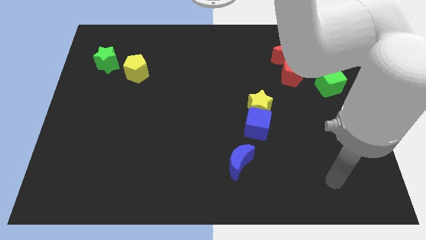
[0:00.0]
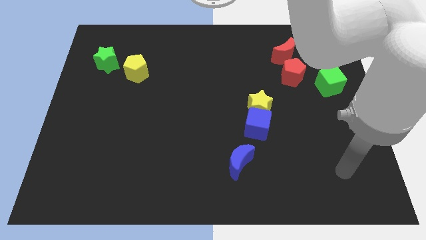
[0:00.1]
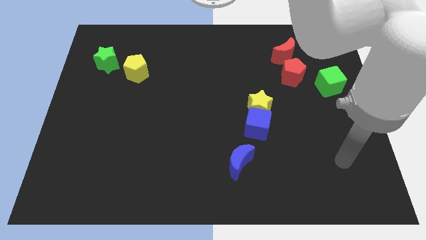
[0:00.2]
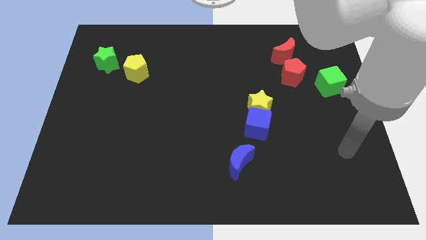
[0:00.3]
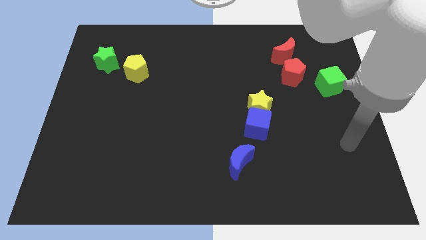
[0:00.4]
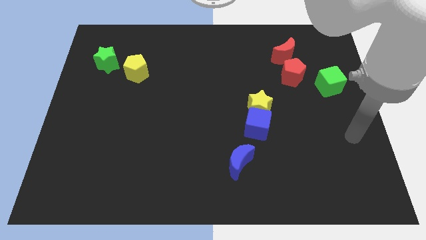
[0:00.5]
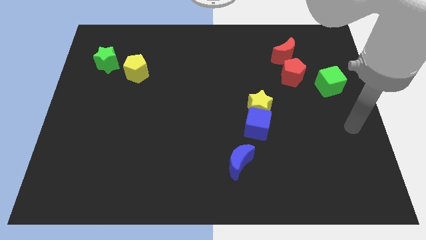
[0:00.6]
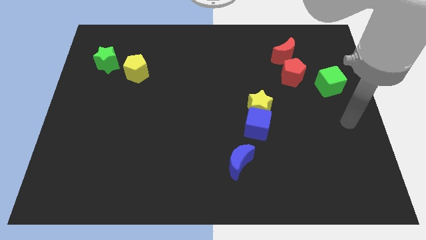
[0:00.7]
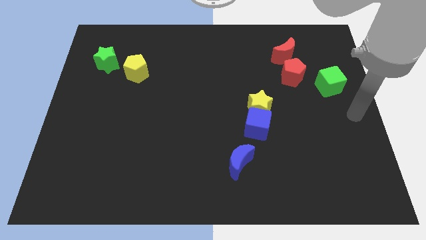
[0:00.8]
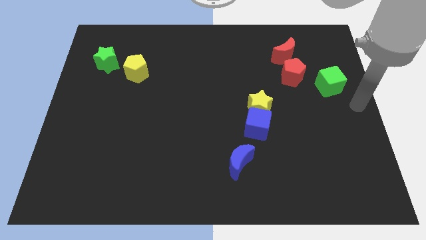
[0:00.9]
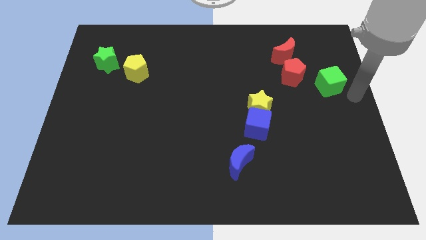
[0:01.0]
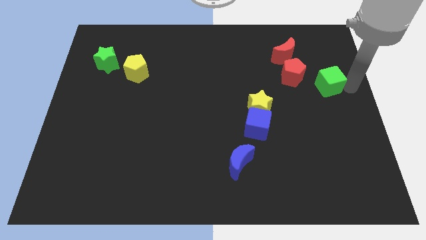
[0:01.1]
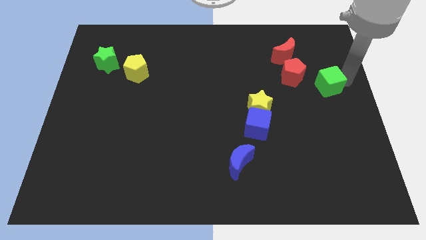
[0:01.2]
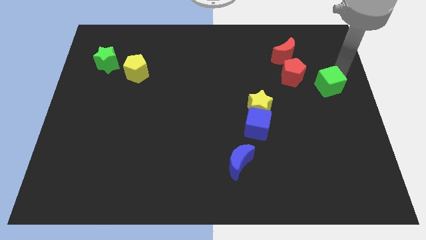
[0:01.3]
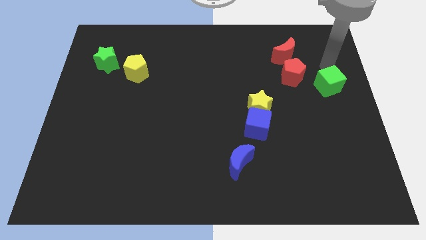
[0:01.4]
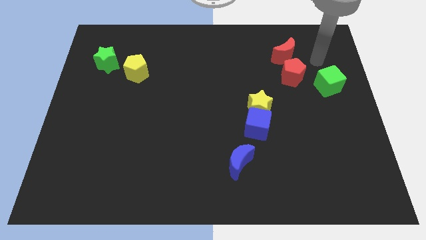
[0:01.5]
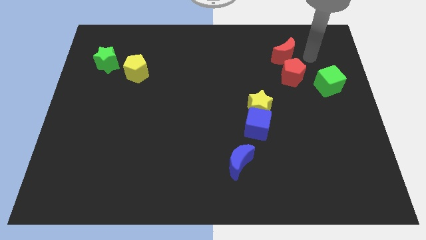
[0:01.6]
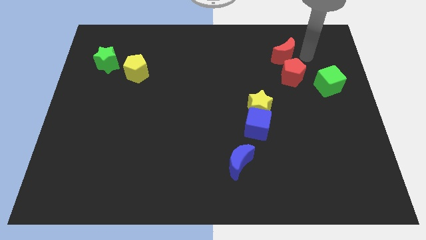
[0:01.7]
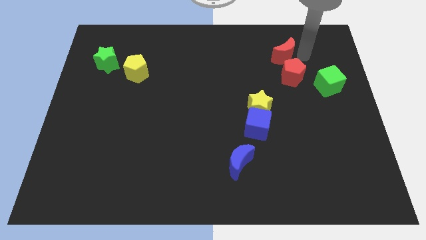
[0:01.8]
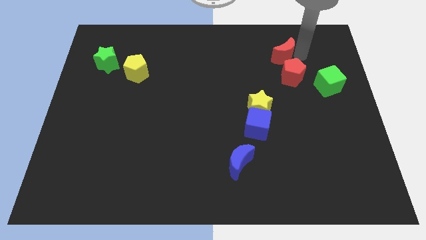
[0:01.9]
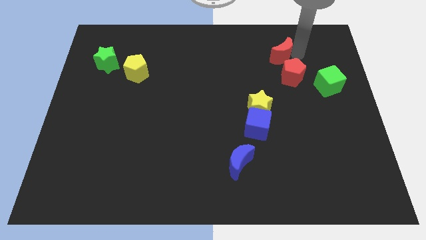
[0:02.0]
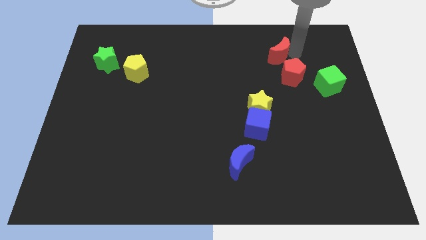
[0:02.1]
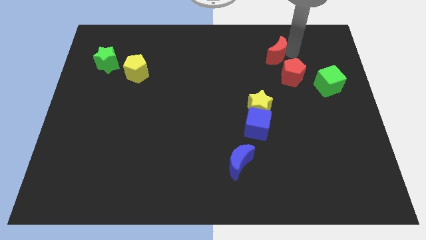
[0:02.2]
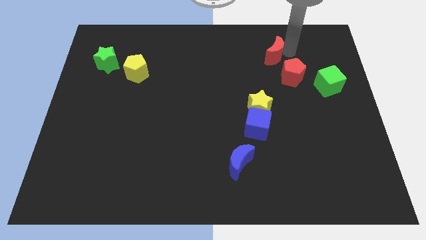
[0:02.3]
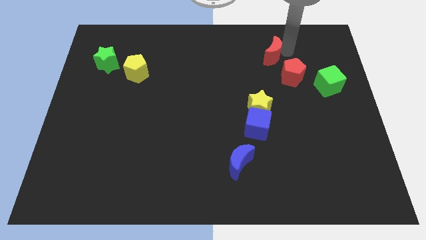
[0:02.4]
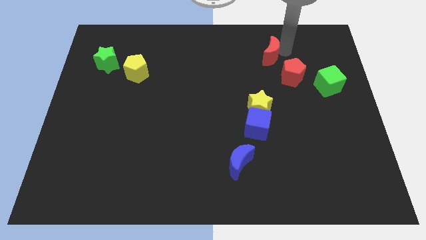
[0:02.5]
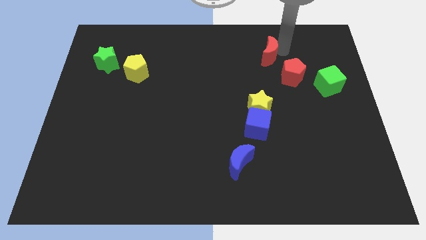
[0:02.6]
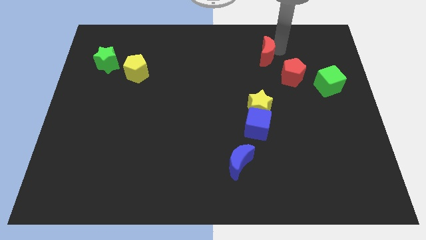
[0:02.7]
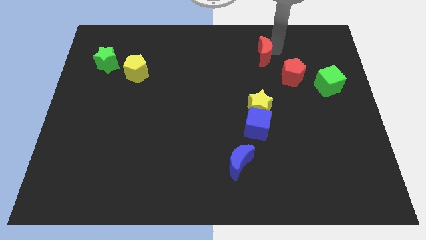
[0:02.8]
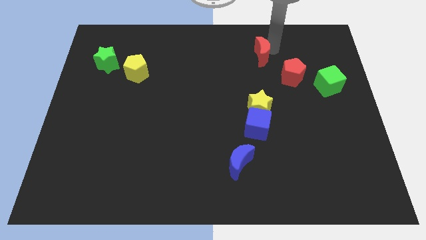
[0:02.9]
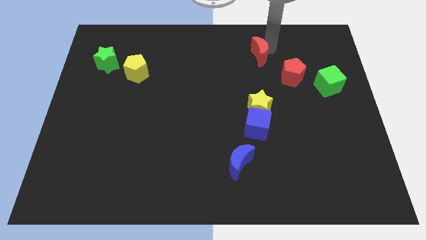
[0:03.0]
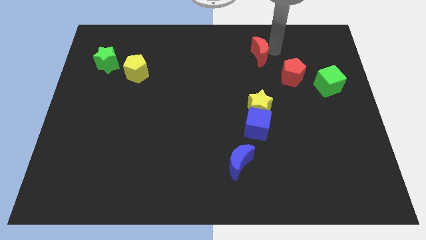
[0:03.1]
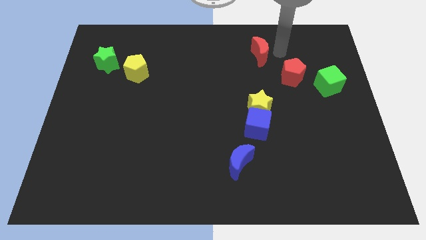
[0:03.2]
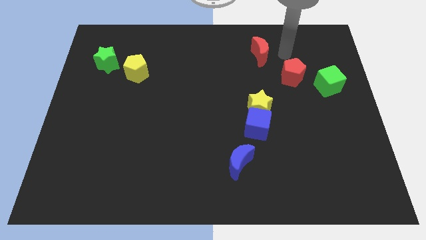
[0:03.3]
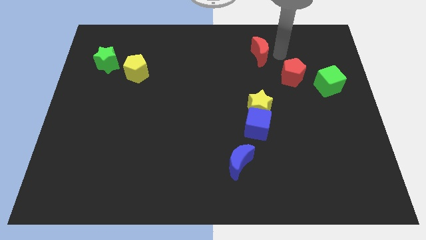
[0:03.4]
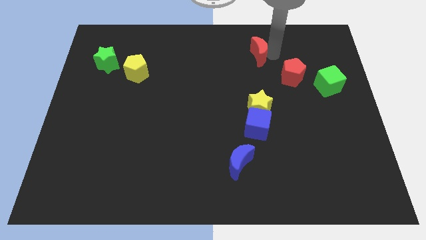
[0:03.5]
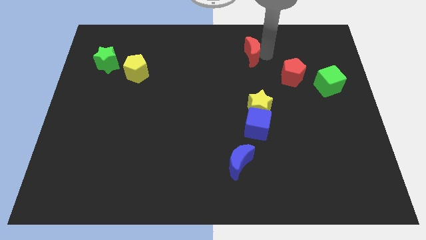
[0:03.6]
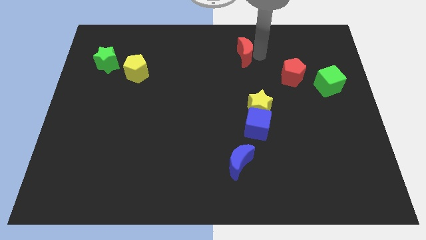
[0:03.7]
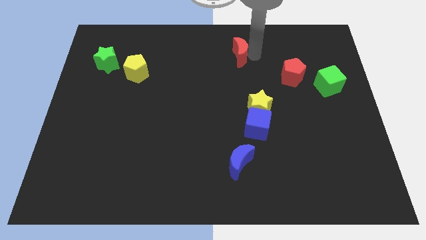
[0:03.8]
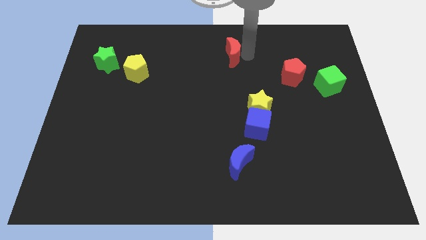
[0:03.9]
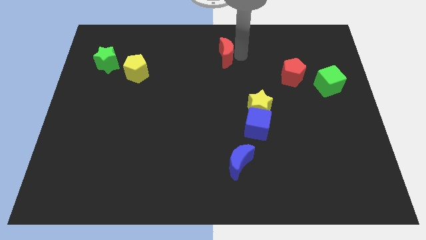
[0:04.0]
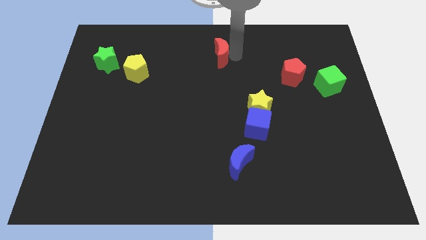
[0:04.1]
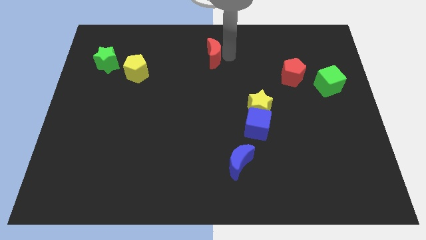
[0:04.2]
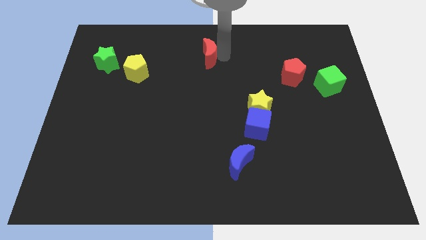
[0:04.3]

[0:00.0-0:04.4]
move the red moon to the left

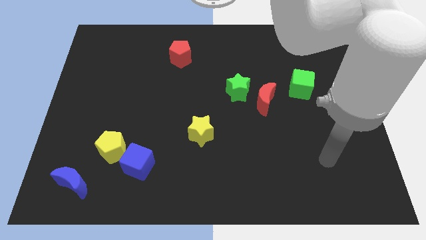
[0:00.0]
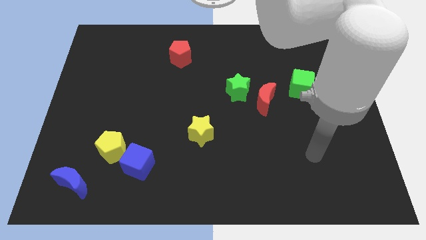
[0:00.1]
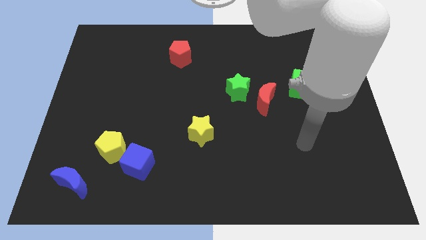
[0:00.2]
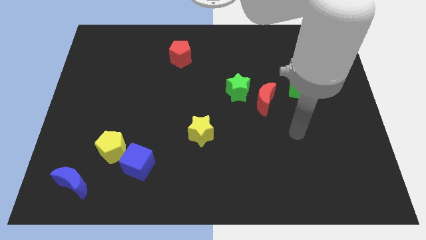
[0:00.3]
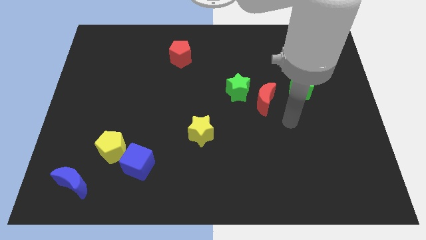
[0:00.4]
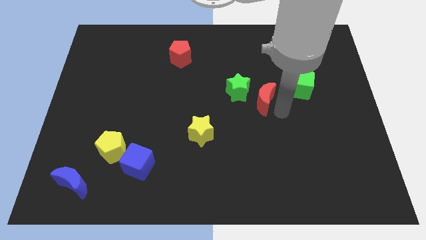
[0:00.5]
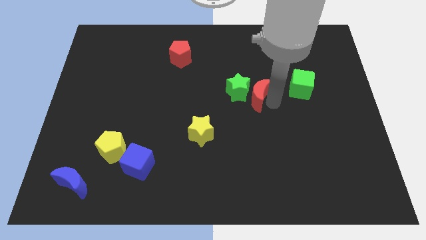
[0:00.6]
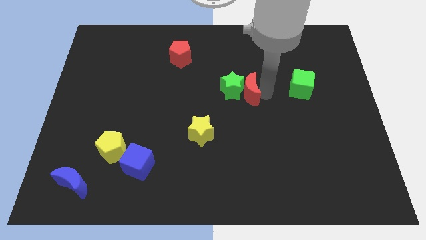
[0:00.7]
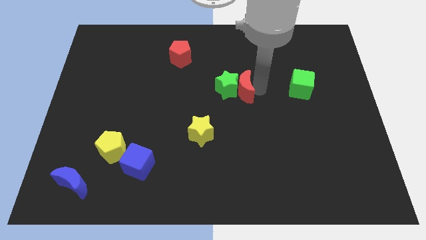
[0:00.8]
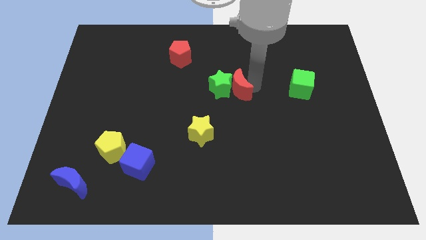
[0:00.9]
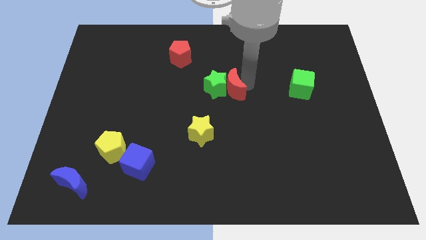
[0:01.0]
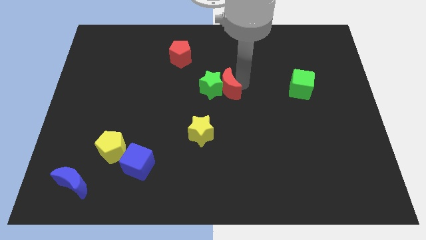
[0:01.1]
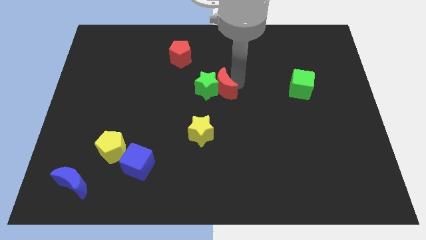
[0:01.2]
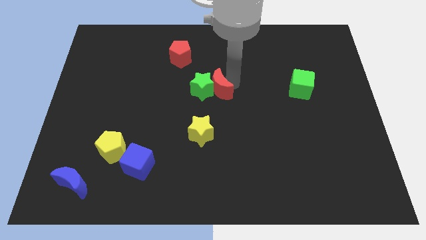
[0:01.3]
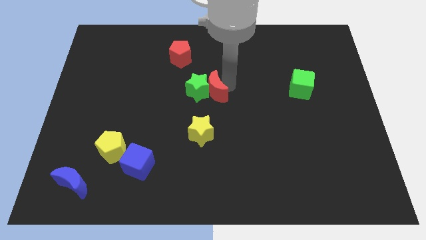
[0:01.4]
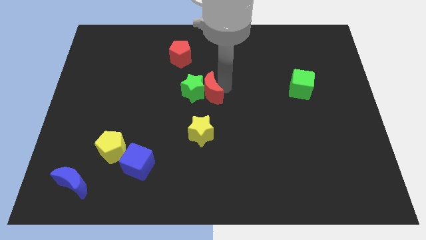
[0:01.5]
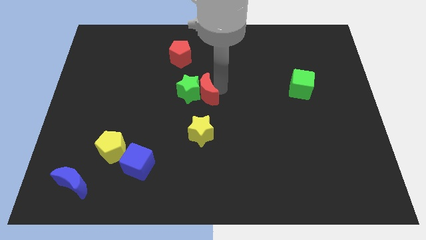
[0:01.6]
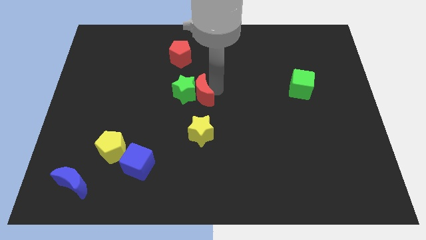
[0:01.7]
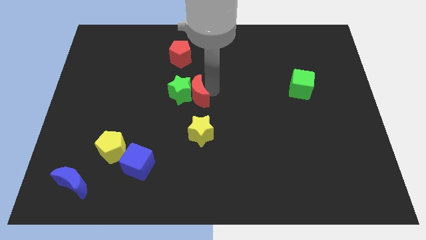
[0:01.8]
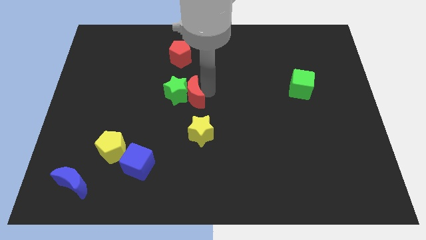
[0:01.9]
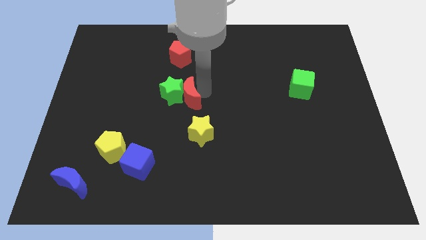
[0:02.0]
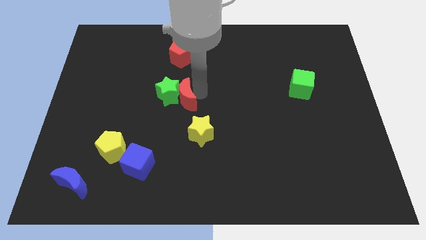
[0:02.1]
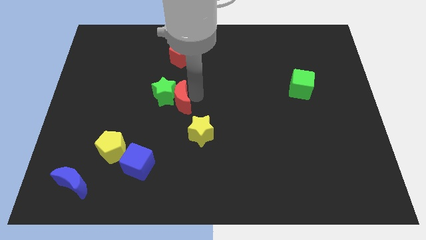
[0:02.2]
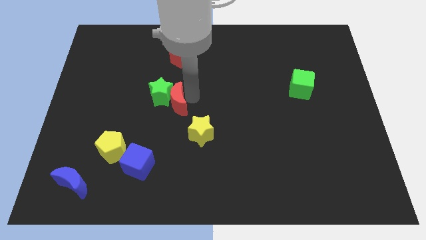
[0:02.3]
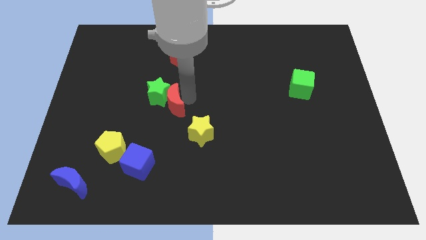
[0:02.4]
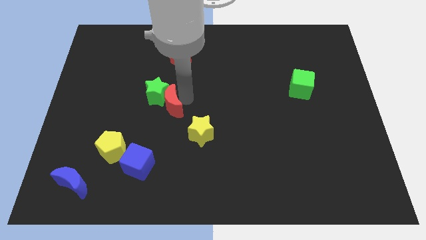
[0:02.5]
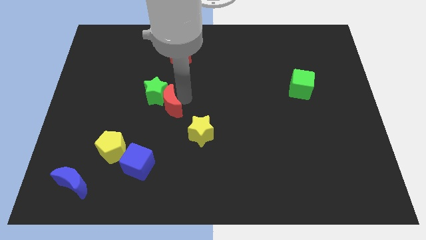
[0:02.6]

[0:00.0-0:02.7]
slide the green star to the left

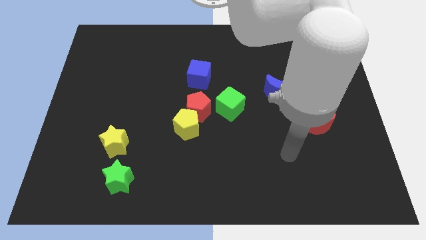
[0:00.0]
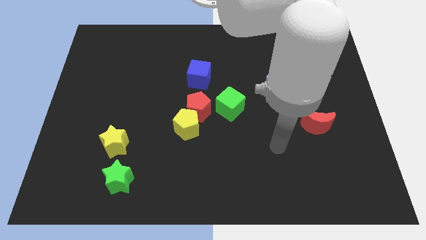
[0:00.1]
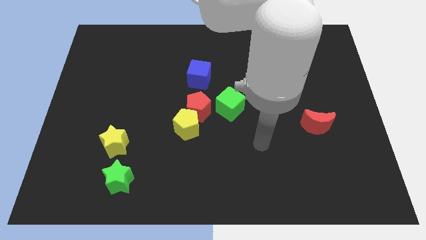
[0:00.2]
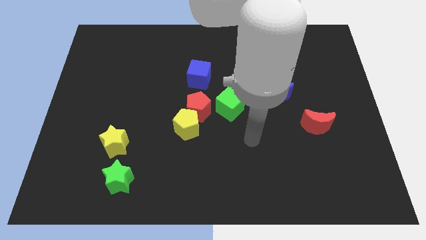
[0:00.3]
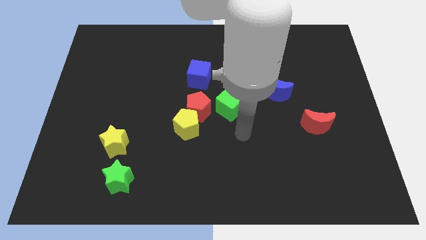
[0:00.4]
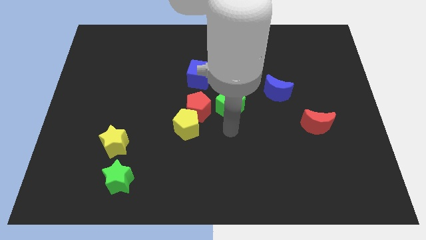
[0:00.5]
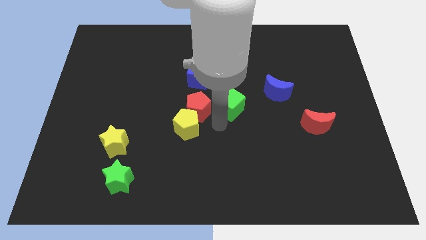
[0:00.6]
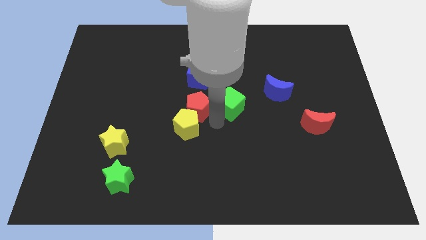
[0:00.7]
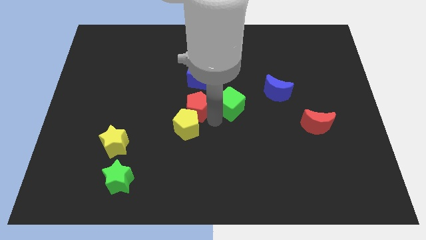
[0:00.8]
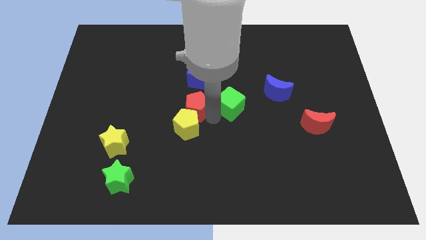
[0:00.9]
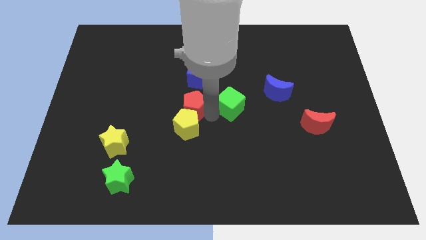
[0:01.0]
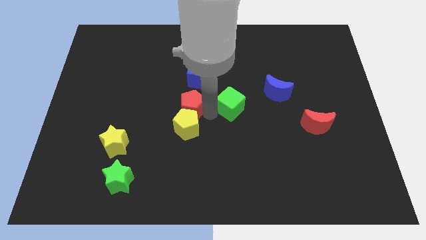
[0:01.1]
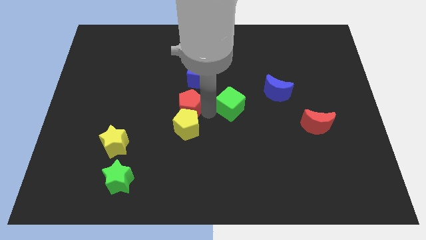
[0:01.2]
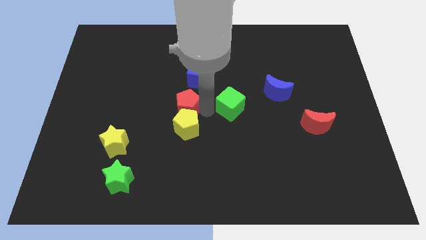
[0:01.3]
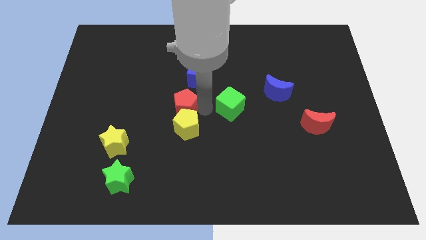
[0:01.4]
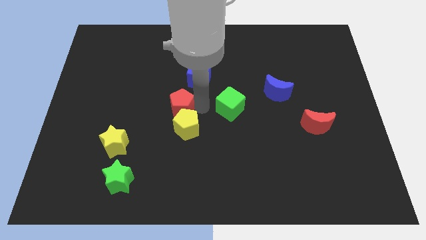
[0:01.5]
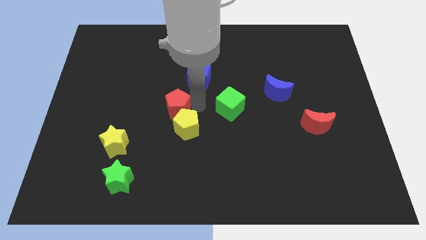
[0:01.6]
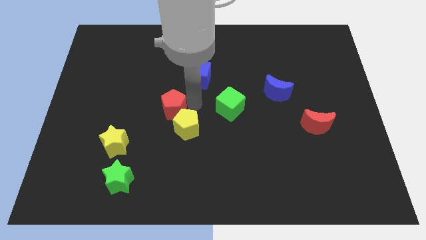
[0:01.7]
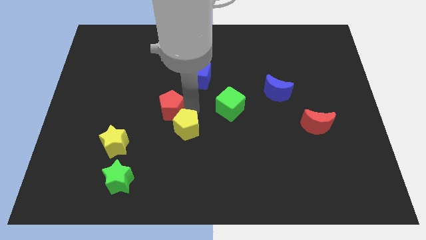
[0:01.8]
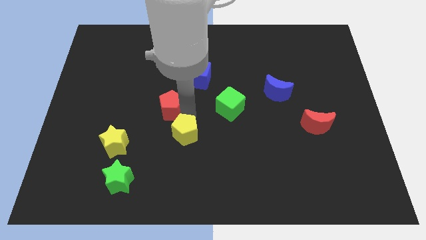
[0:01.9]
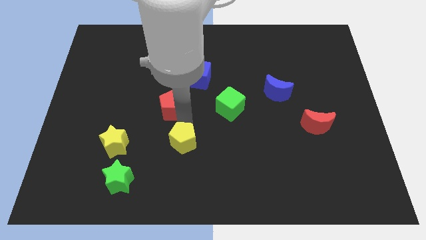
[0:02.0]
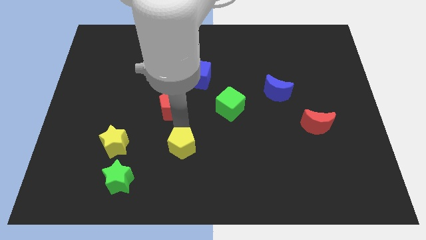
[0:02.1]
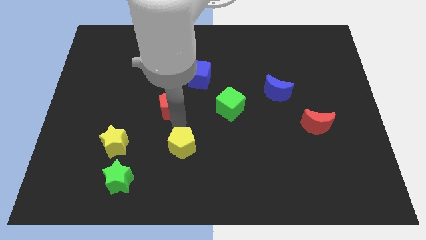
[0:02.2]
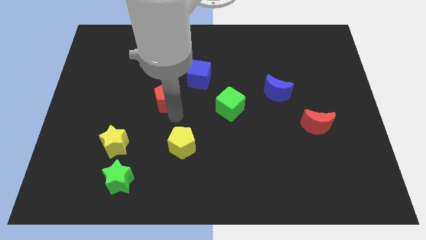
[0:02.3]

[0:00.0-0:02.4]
slide the red pentagon a little upwards and then left
